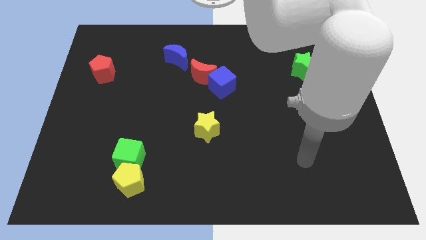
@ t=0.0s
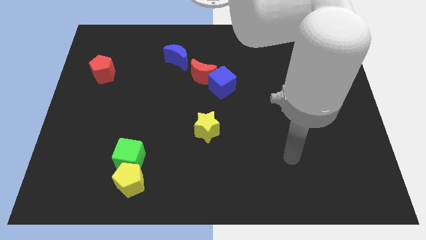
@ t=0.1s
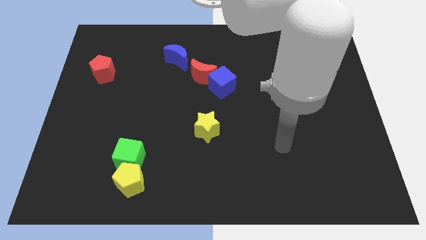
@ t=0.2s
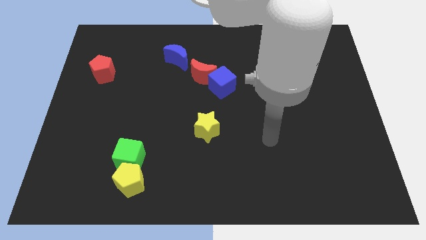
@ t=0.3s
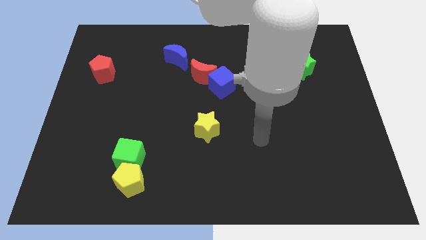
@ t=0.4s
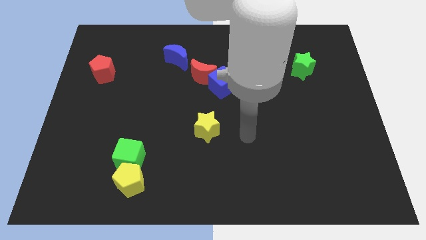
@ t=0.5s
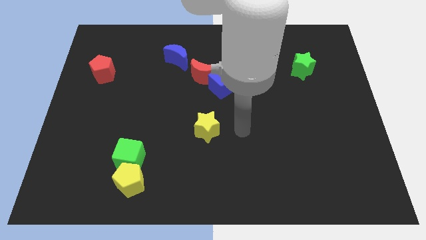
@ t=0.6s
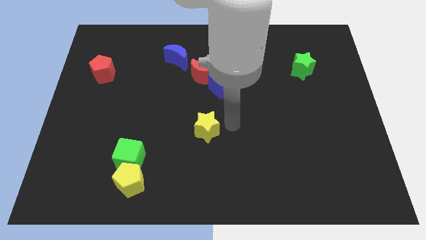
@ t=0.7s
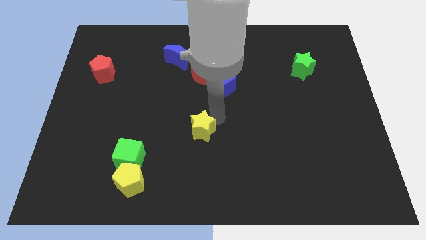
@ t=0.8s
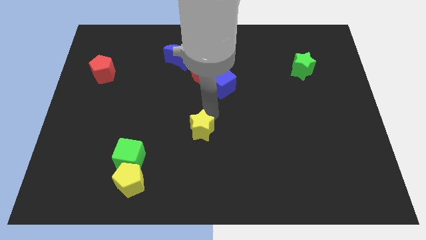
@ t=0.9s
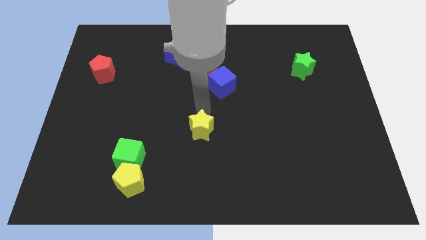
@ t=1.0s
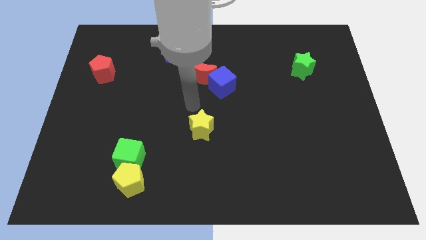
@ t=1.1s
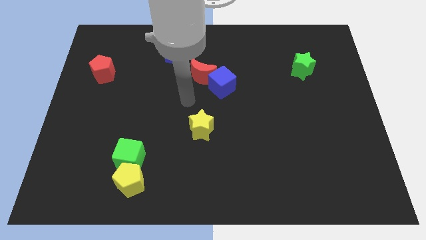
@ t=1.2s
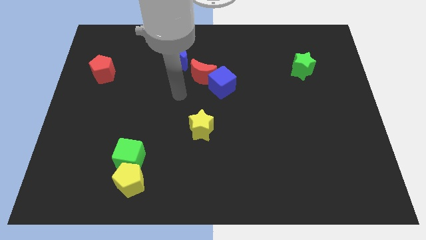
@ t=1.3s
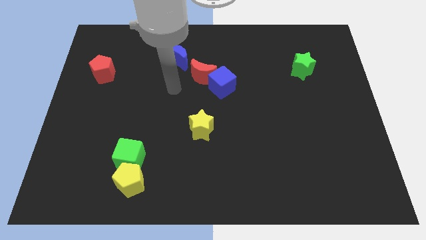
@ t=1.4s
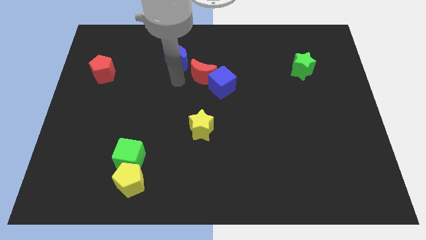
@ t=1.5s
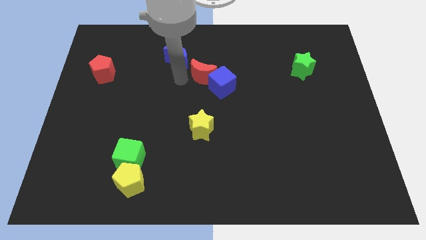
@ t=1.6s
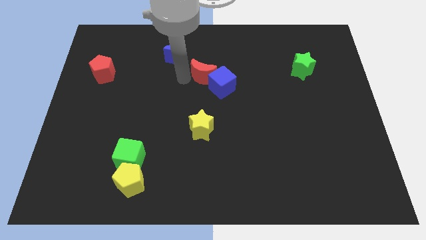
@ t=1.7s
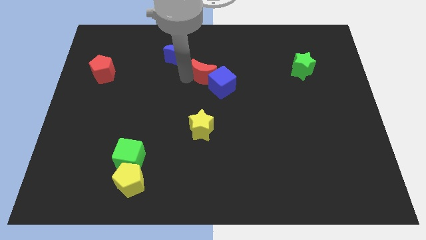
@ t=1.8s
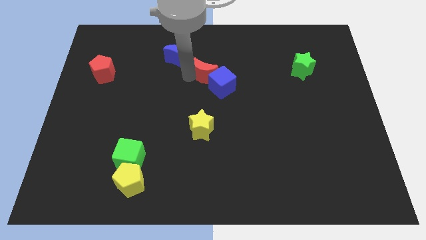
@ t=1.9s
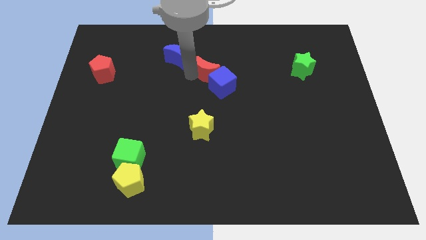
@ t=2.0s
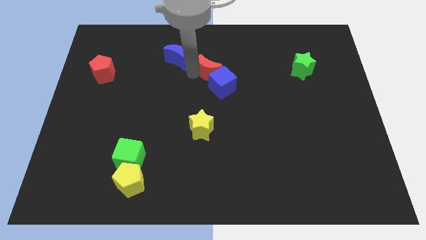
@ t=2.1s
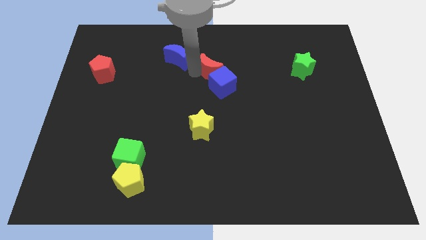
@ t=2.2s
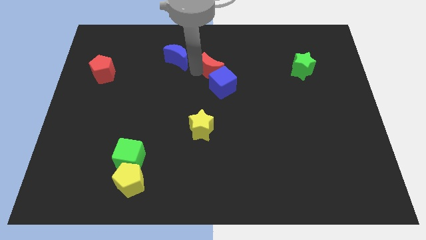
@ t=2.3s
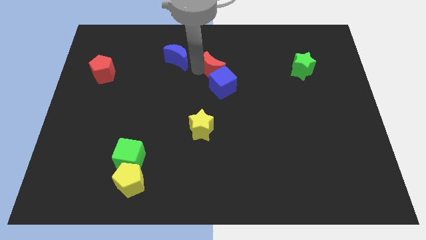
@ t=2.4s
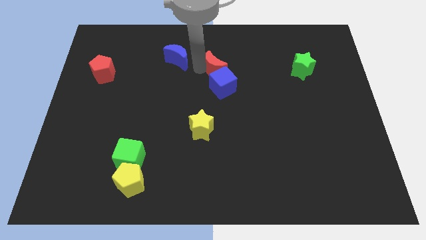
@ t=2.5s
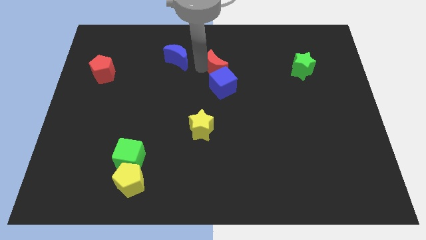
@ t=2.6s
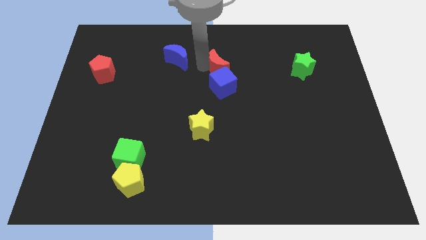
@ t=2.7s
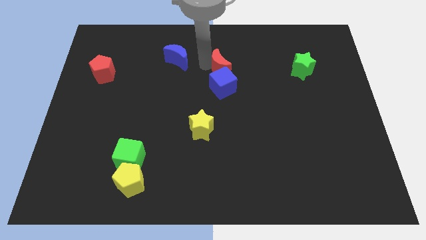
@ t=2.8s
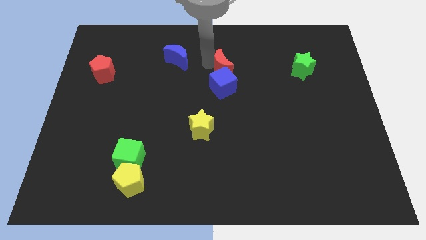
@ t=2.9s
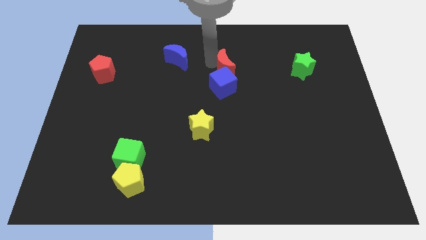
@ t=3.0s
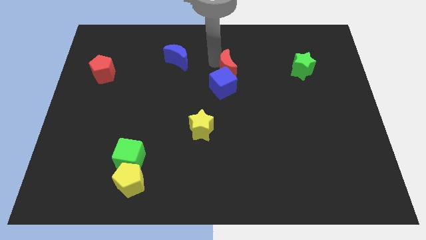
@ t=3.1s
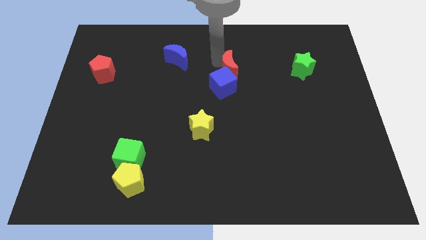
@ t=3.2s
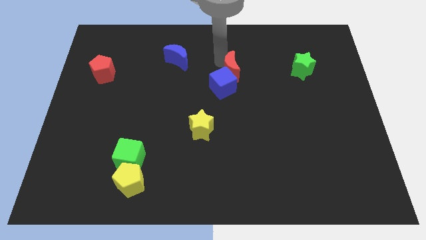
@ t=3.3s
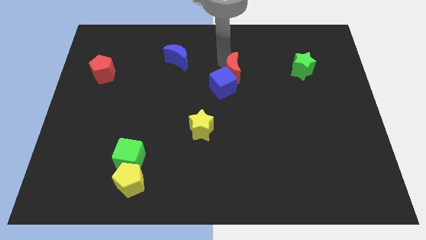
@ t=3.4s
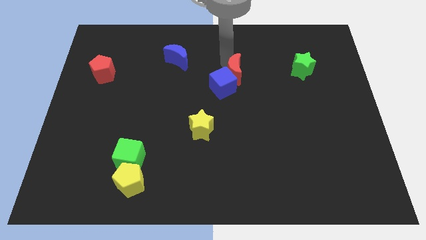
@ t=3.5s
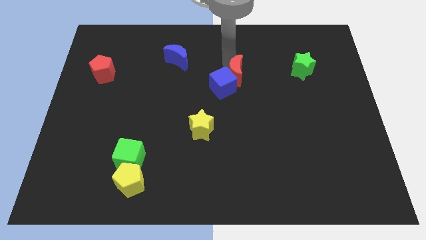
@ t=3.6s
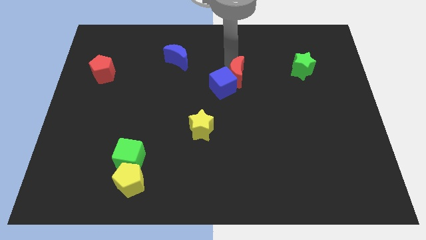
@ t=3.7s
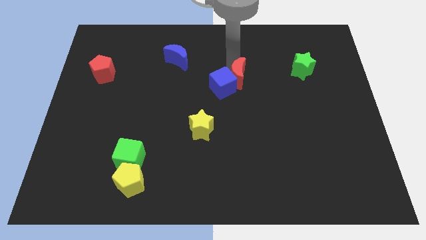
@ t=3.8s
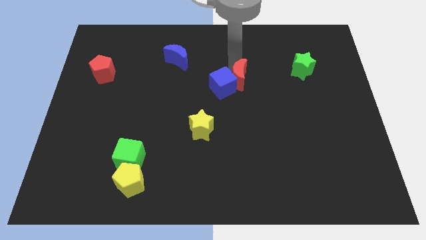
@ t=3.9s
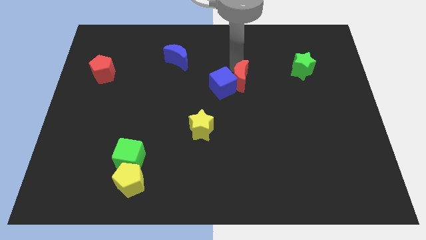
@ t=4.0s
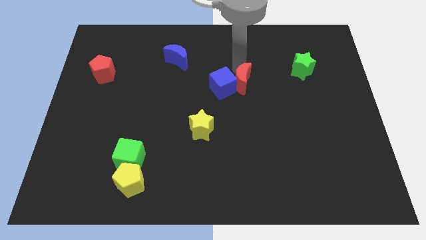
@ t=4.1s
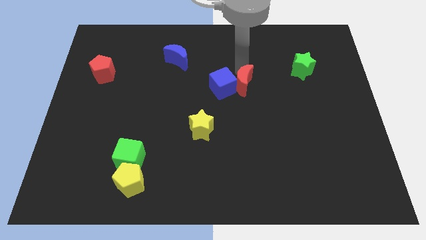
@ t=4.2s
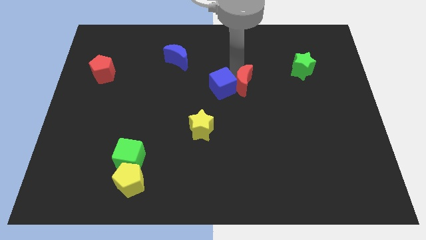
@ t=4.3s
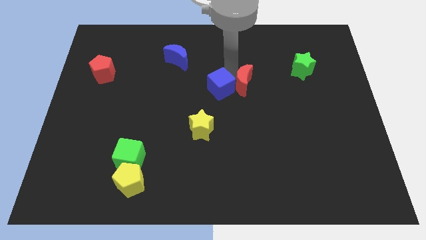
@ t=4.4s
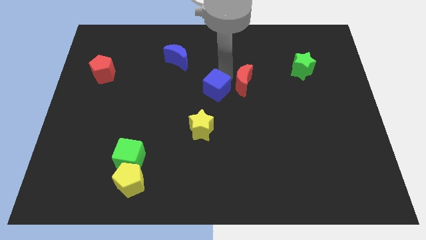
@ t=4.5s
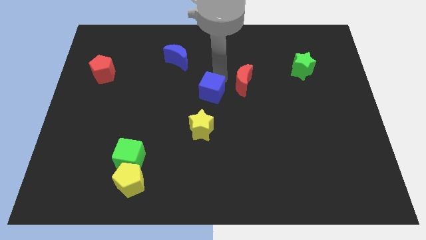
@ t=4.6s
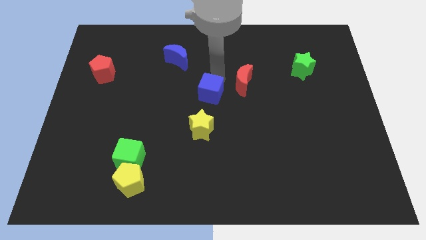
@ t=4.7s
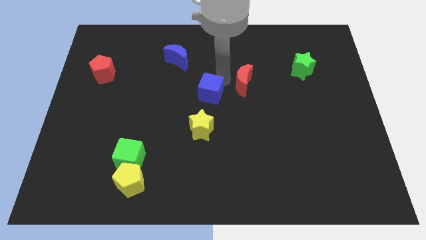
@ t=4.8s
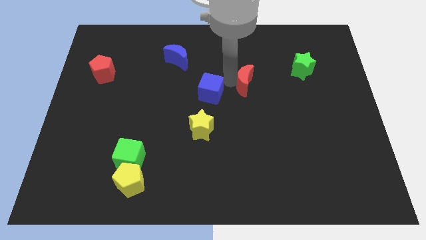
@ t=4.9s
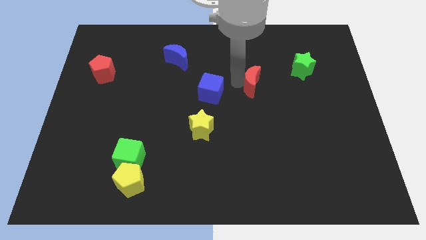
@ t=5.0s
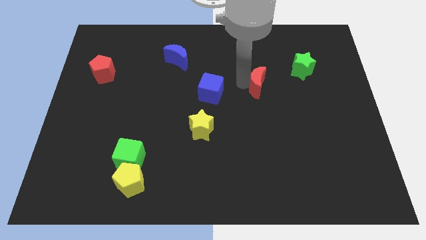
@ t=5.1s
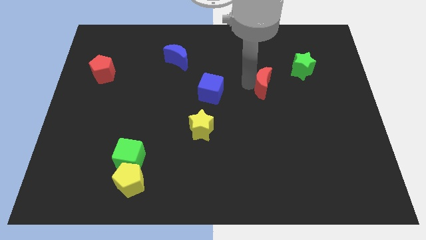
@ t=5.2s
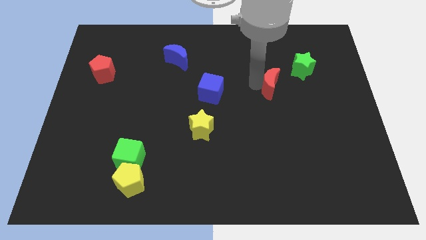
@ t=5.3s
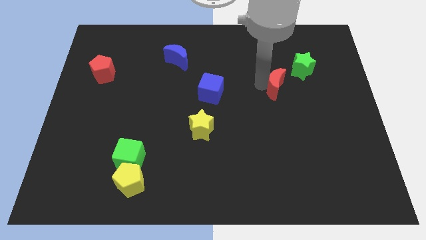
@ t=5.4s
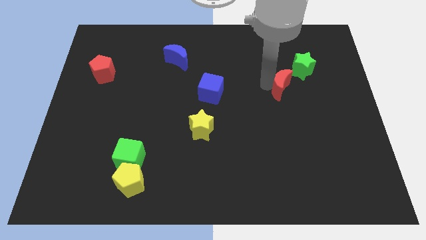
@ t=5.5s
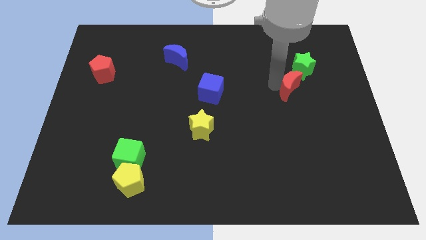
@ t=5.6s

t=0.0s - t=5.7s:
put the red moon below the green star

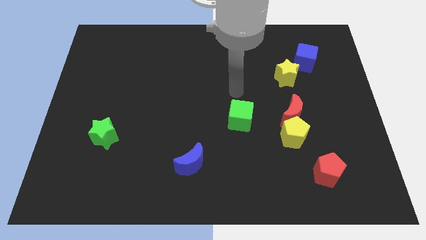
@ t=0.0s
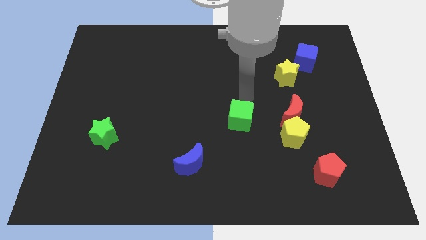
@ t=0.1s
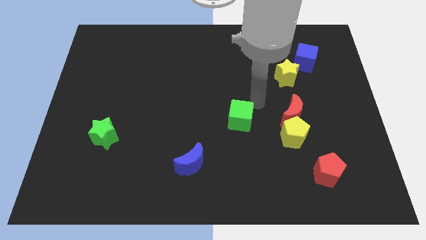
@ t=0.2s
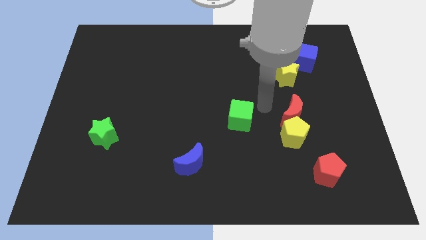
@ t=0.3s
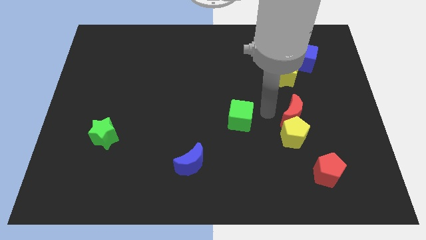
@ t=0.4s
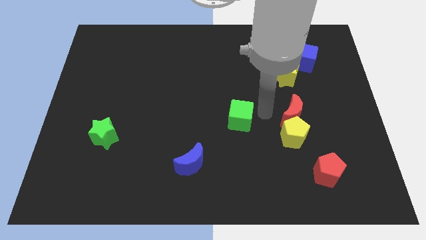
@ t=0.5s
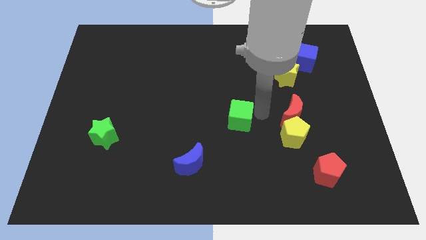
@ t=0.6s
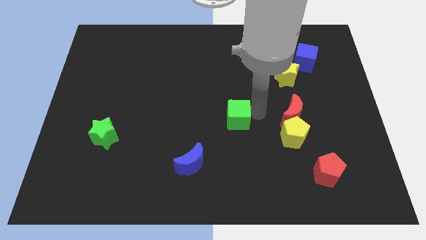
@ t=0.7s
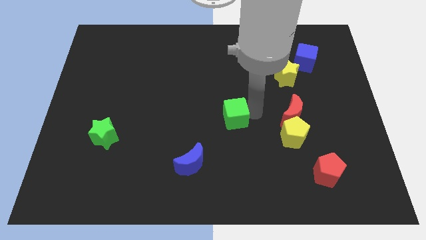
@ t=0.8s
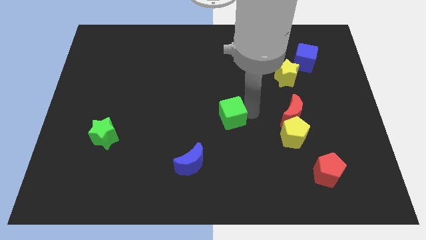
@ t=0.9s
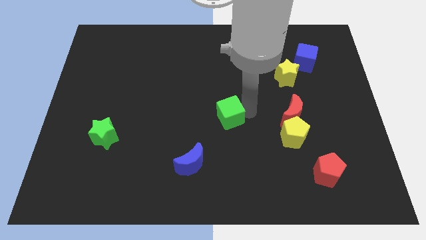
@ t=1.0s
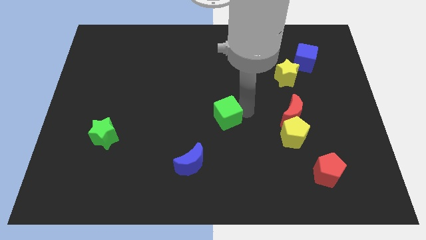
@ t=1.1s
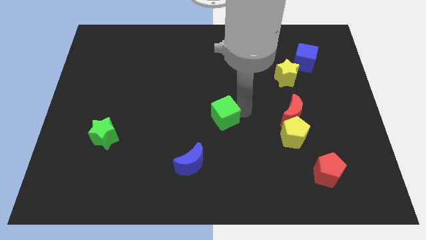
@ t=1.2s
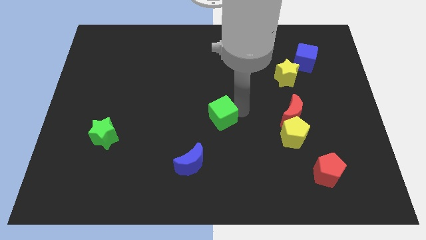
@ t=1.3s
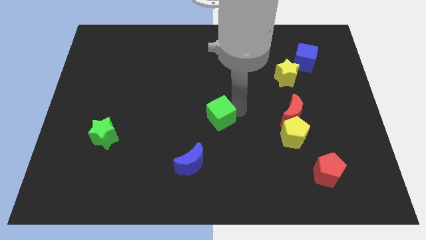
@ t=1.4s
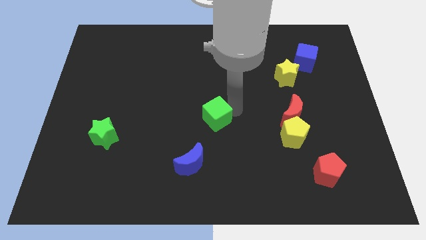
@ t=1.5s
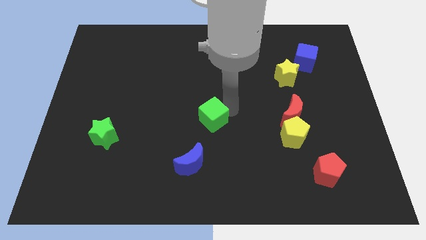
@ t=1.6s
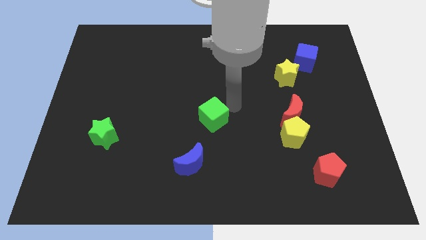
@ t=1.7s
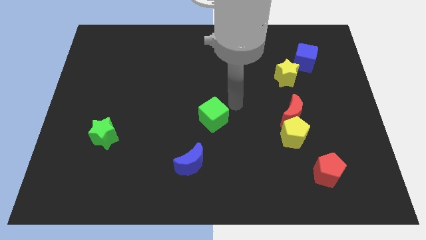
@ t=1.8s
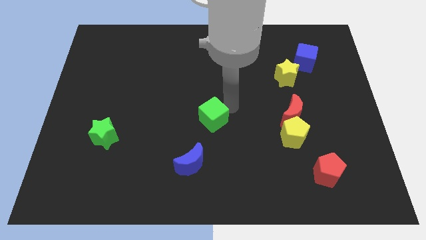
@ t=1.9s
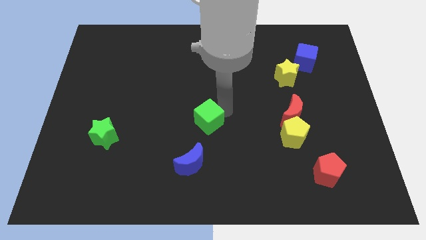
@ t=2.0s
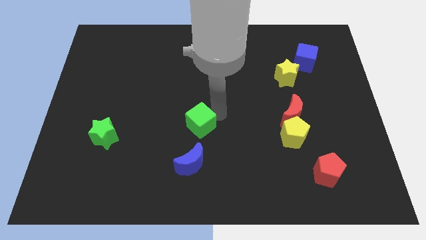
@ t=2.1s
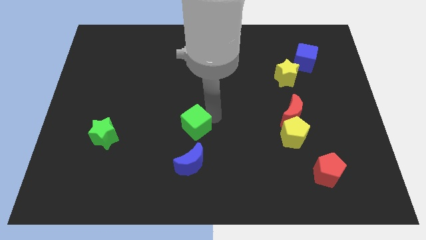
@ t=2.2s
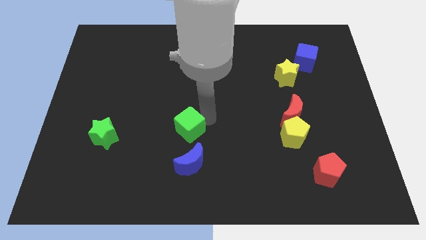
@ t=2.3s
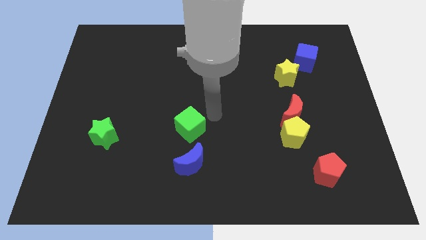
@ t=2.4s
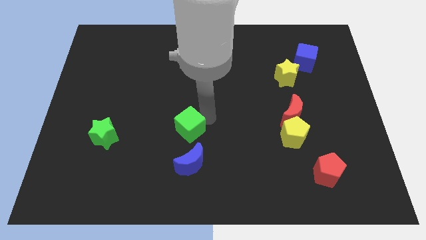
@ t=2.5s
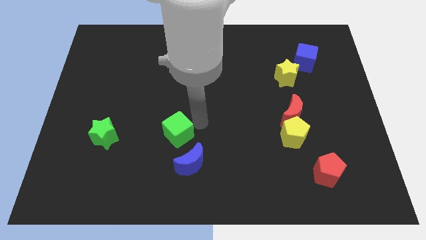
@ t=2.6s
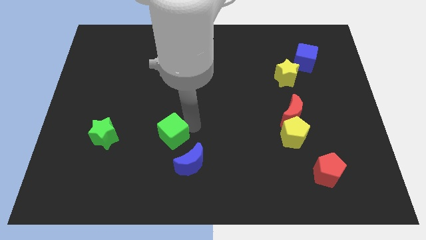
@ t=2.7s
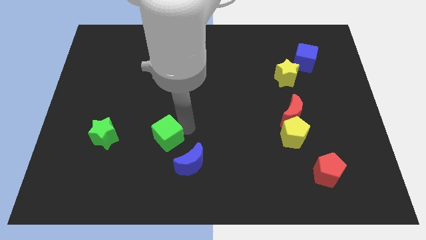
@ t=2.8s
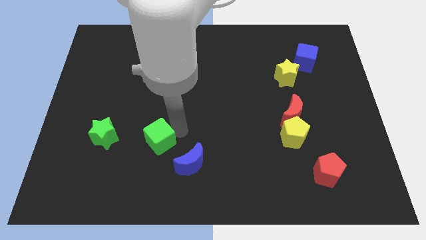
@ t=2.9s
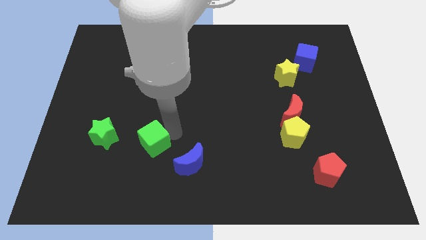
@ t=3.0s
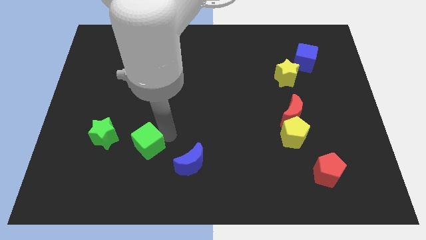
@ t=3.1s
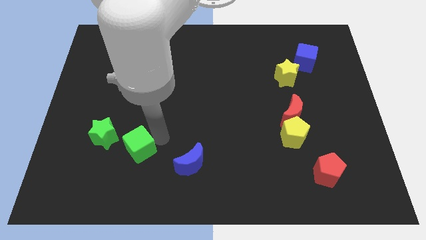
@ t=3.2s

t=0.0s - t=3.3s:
slide the green cube to the bottom right of the green star
